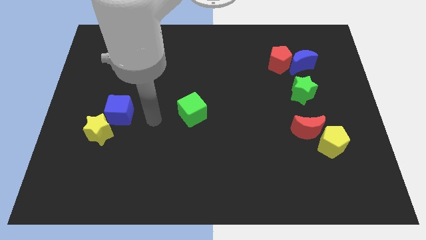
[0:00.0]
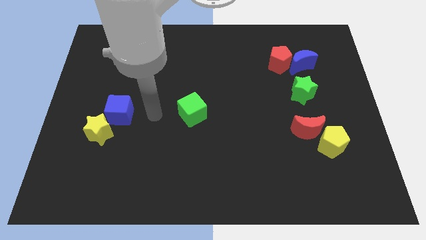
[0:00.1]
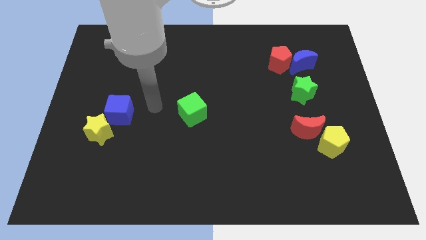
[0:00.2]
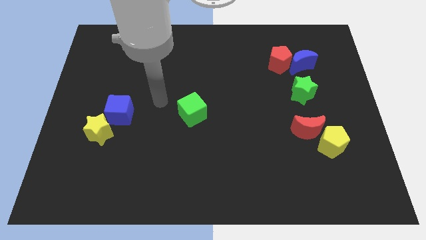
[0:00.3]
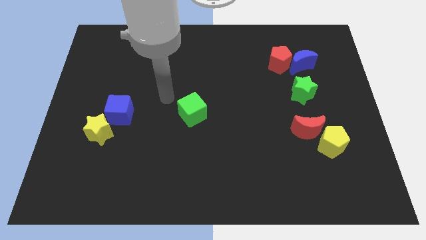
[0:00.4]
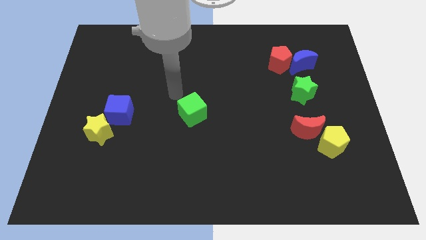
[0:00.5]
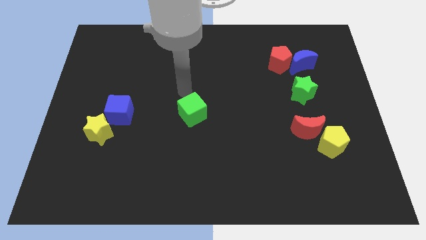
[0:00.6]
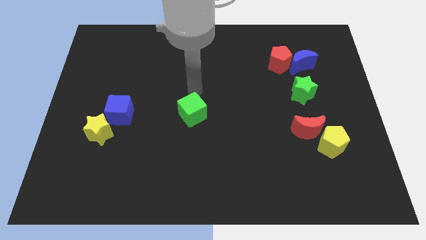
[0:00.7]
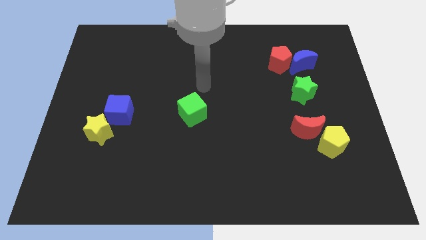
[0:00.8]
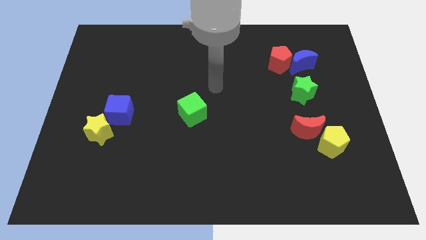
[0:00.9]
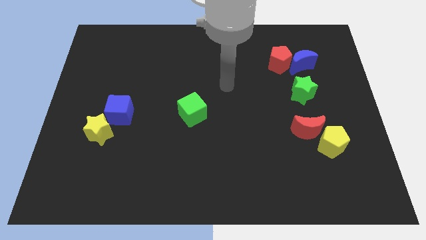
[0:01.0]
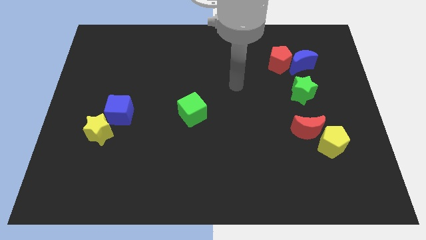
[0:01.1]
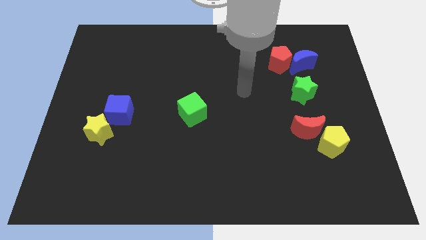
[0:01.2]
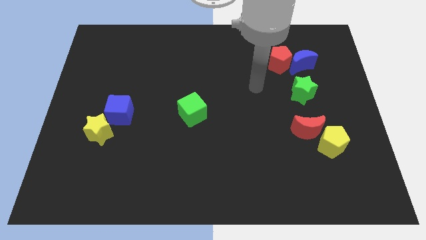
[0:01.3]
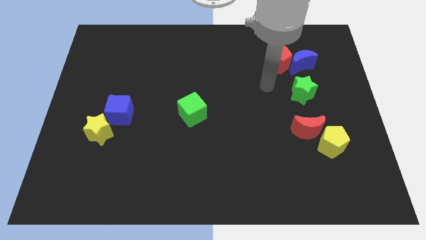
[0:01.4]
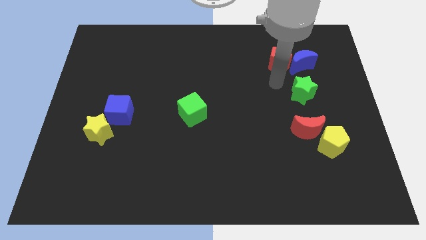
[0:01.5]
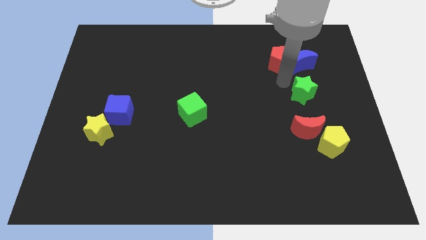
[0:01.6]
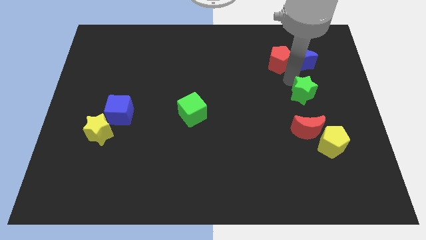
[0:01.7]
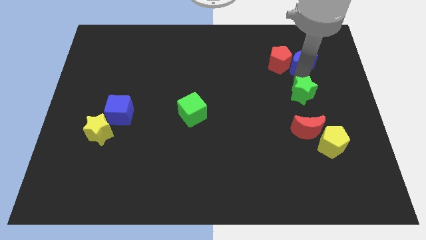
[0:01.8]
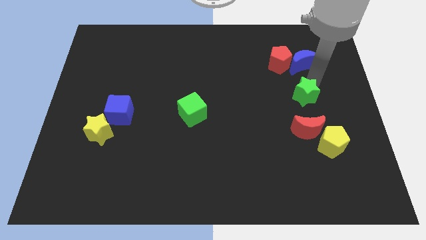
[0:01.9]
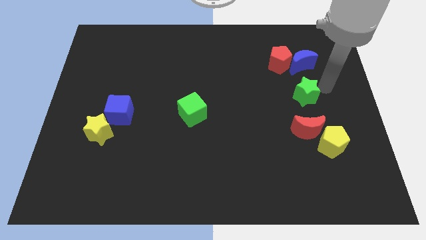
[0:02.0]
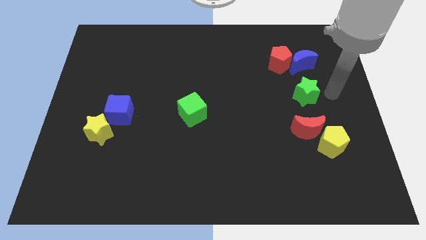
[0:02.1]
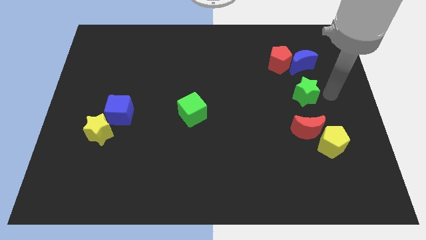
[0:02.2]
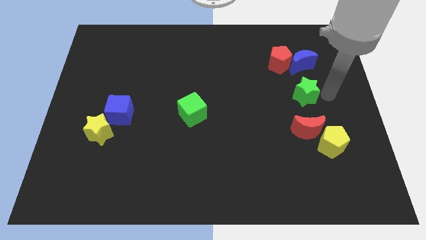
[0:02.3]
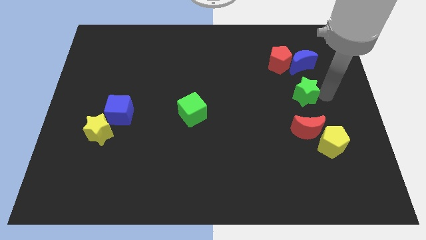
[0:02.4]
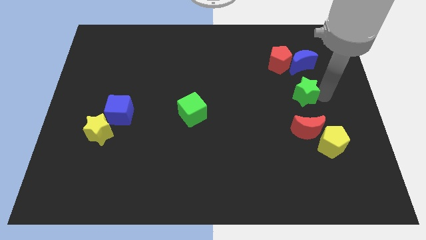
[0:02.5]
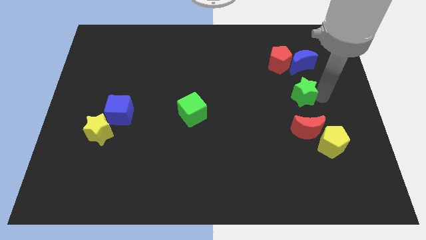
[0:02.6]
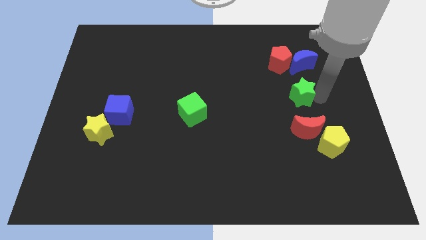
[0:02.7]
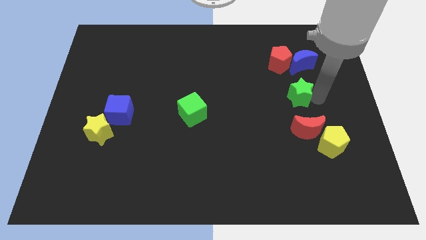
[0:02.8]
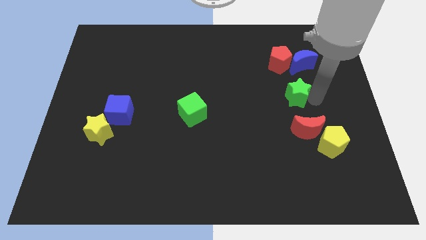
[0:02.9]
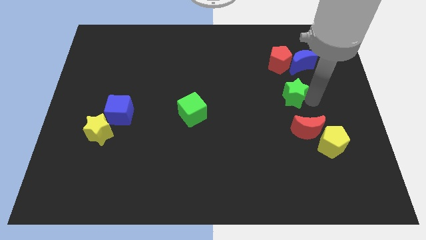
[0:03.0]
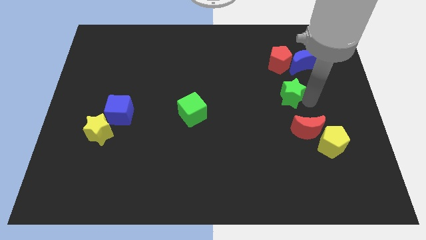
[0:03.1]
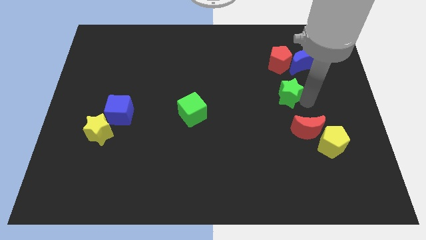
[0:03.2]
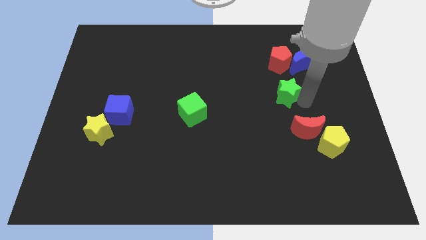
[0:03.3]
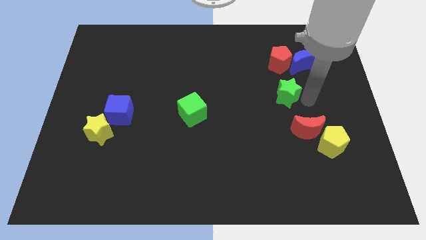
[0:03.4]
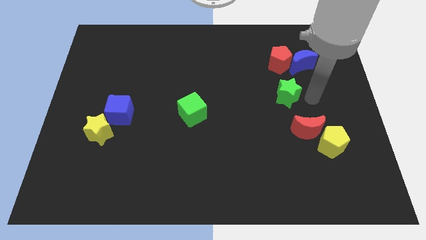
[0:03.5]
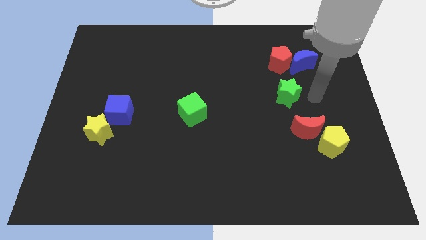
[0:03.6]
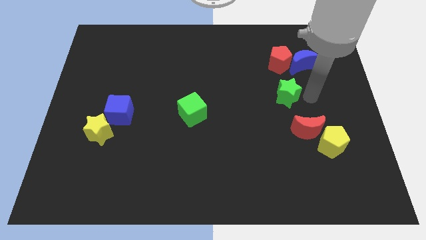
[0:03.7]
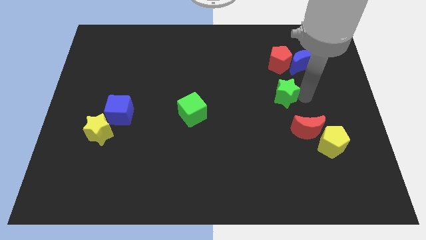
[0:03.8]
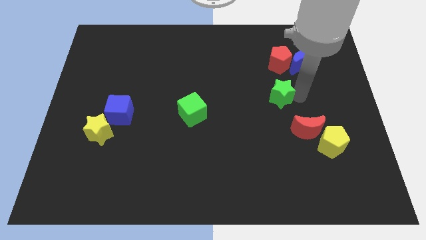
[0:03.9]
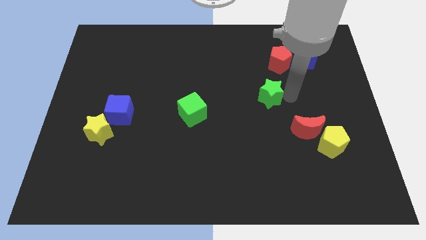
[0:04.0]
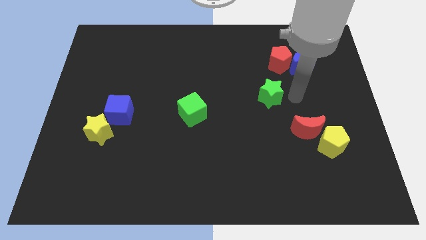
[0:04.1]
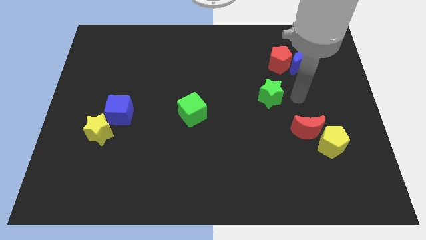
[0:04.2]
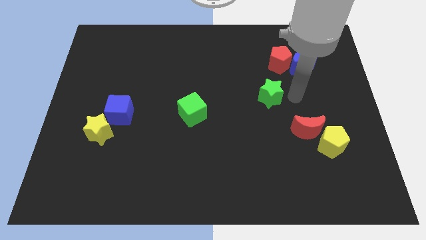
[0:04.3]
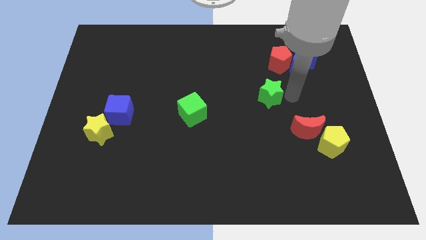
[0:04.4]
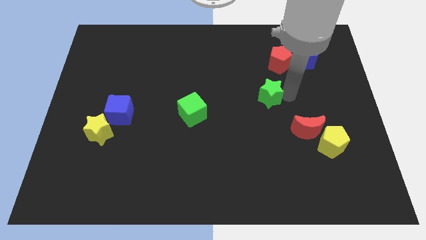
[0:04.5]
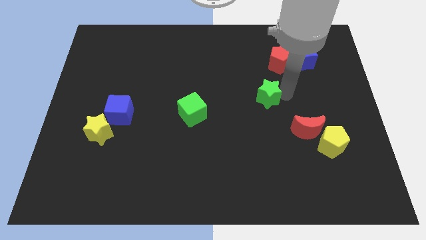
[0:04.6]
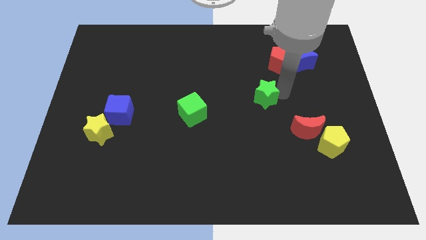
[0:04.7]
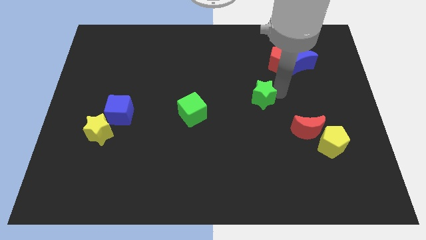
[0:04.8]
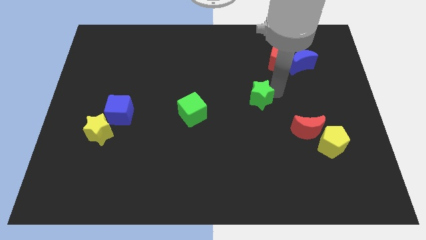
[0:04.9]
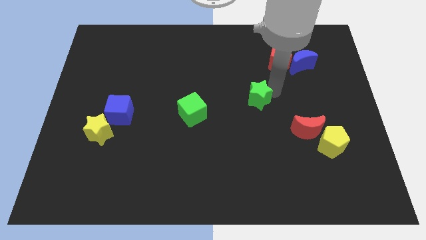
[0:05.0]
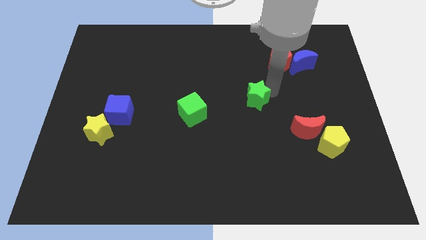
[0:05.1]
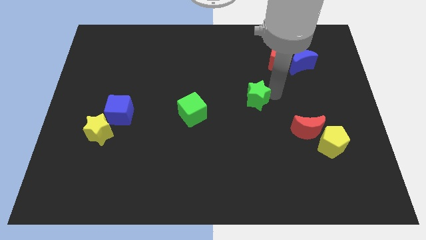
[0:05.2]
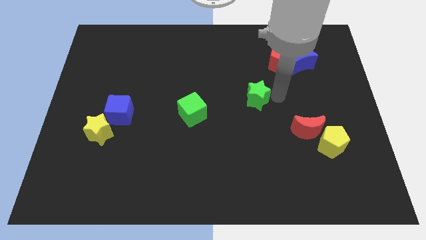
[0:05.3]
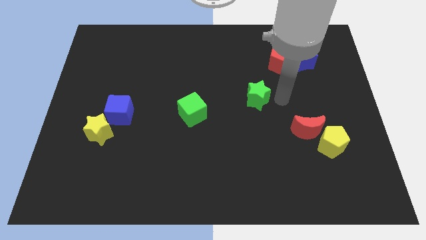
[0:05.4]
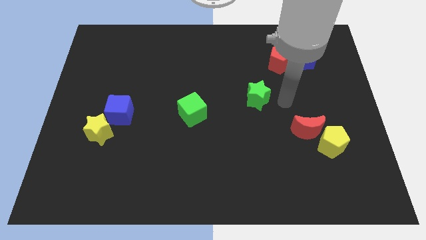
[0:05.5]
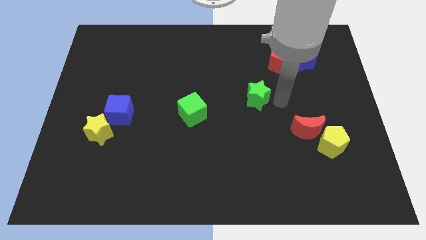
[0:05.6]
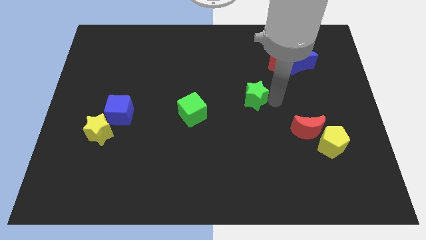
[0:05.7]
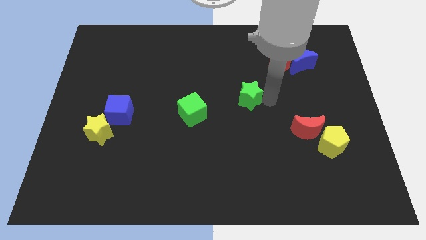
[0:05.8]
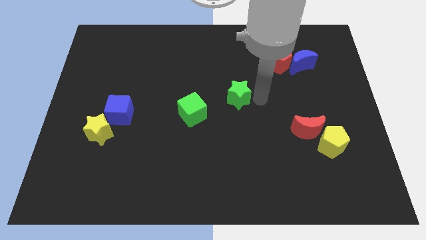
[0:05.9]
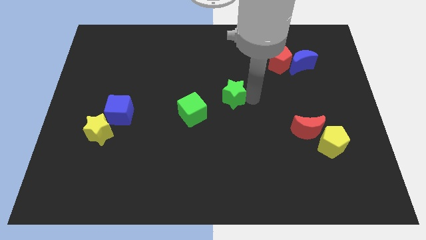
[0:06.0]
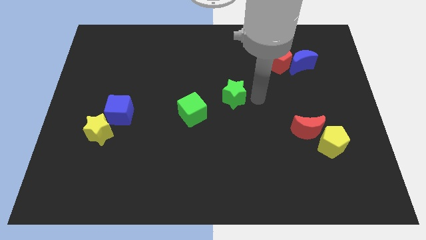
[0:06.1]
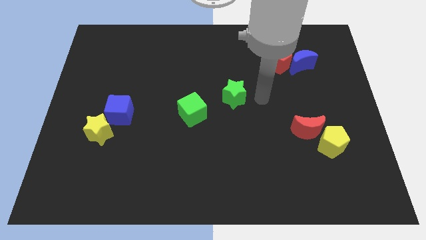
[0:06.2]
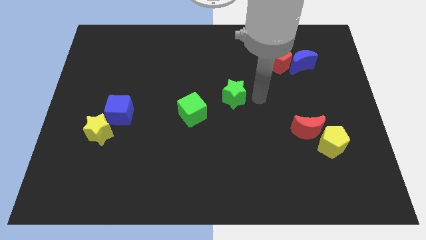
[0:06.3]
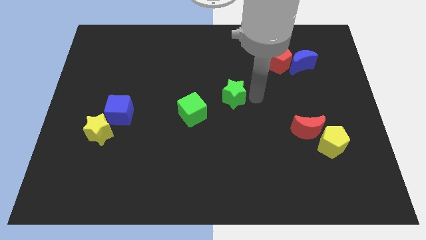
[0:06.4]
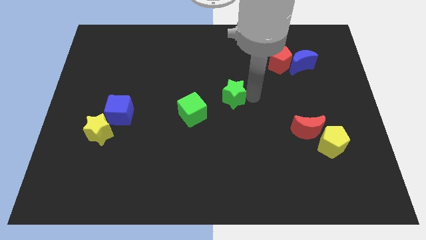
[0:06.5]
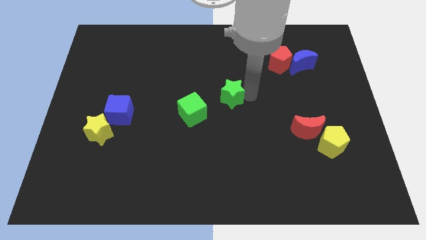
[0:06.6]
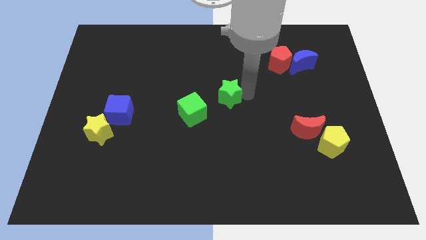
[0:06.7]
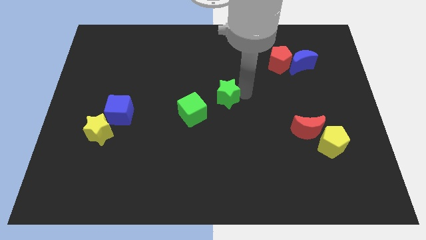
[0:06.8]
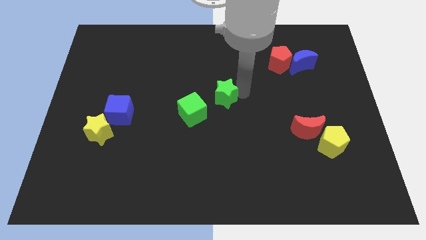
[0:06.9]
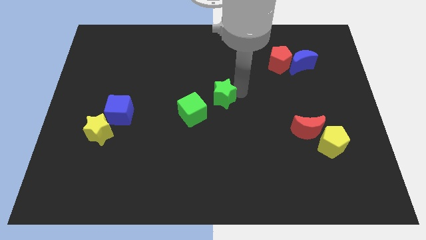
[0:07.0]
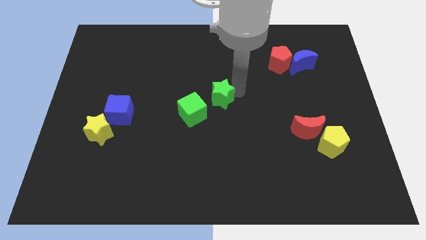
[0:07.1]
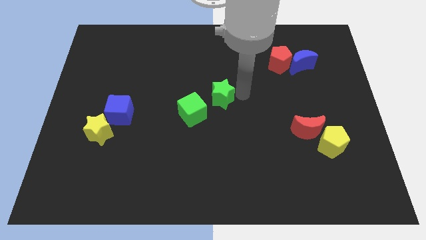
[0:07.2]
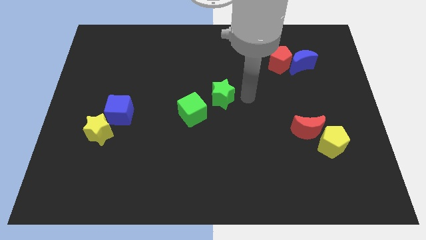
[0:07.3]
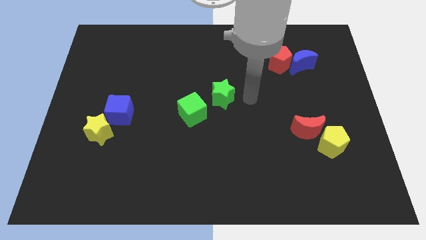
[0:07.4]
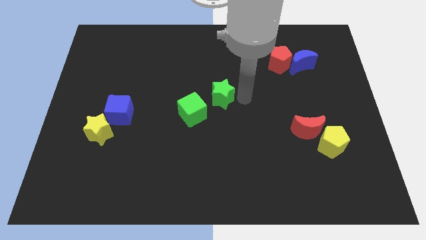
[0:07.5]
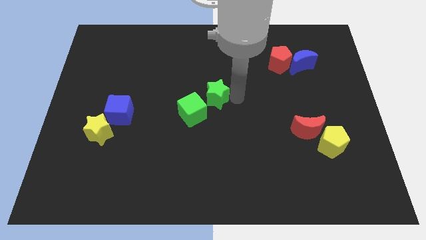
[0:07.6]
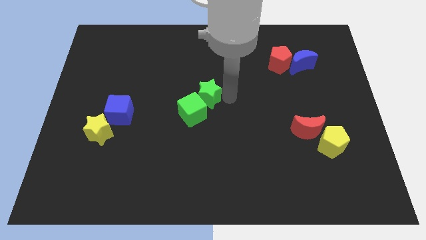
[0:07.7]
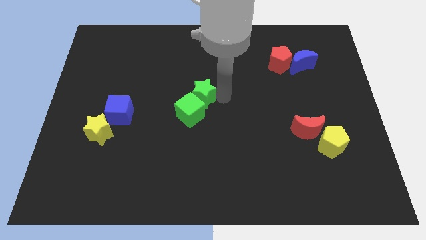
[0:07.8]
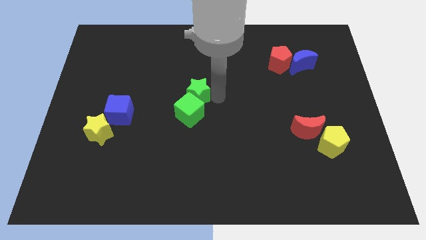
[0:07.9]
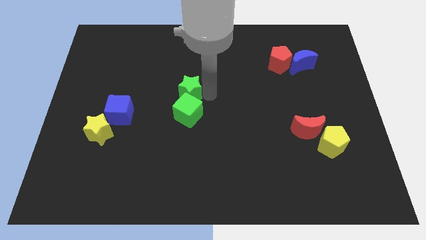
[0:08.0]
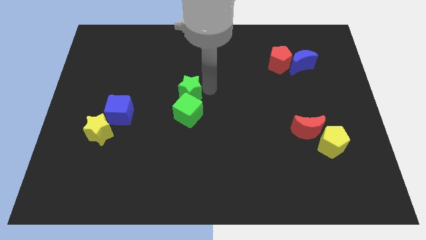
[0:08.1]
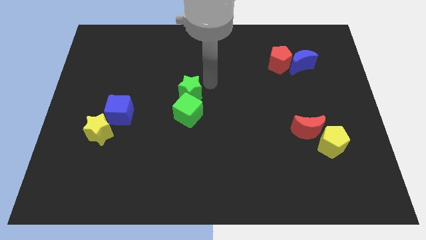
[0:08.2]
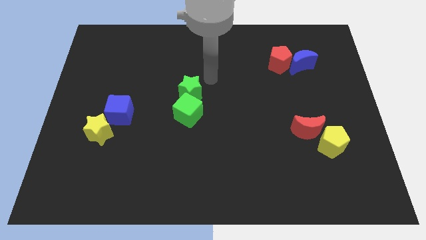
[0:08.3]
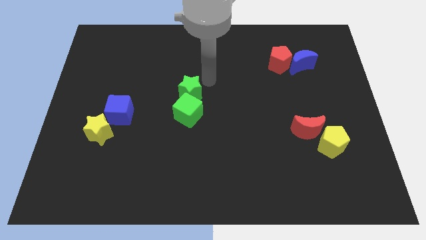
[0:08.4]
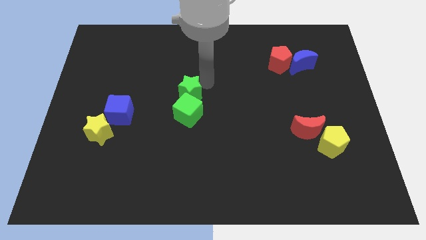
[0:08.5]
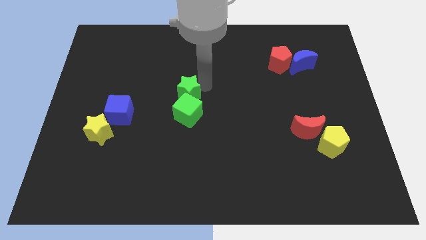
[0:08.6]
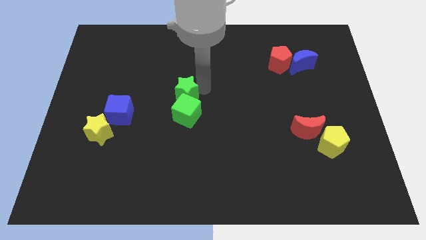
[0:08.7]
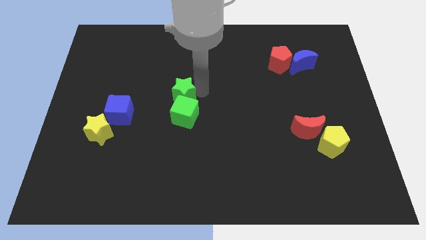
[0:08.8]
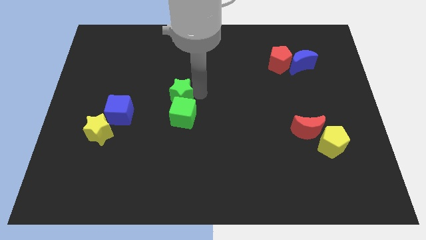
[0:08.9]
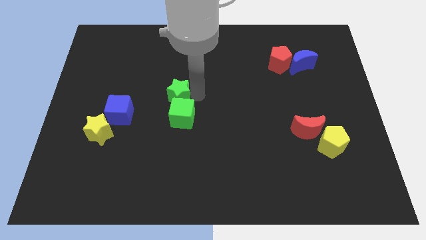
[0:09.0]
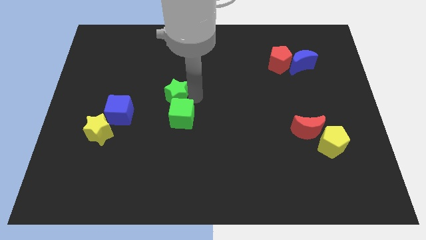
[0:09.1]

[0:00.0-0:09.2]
push the green star to the right side of the blue cube
